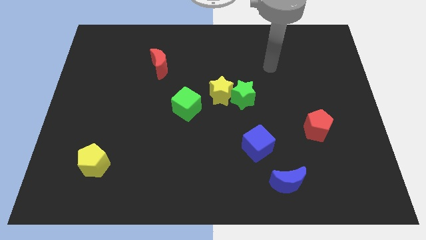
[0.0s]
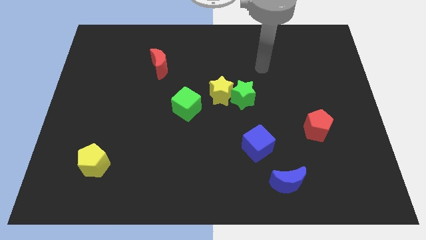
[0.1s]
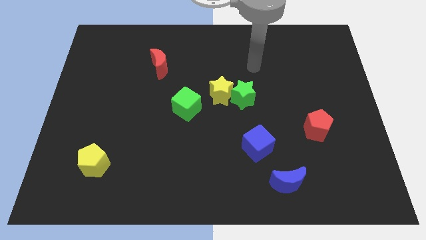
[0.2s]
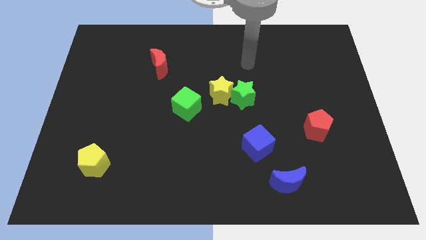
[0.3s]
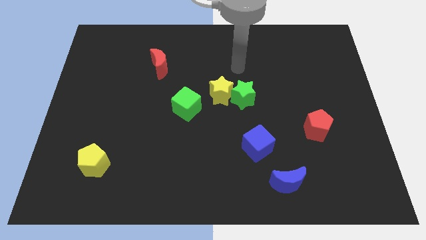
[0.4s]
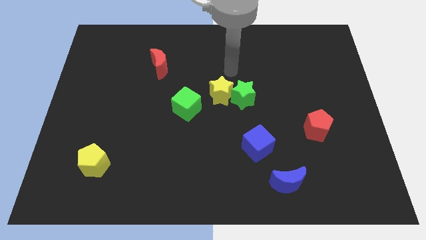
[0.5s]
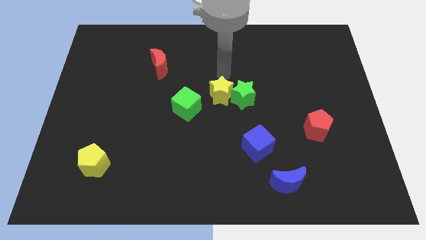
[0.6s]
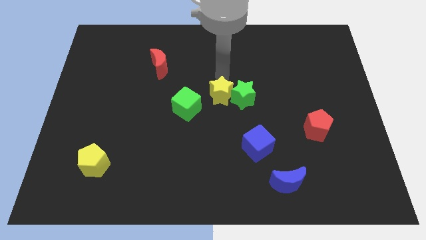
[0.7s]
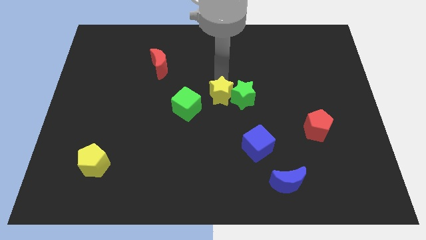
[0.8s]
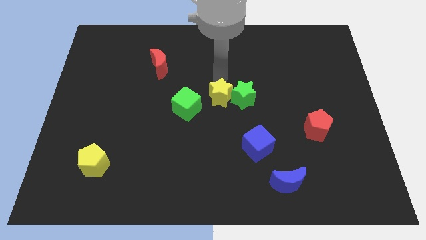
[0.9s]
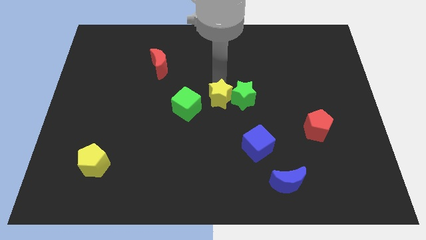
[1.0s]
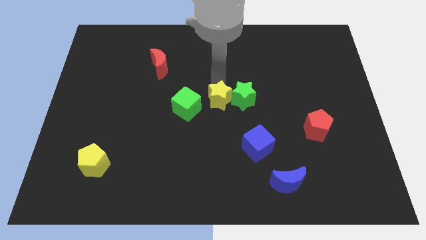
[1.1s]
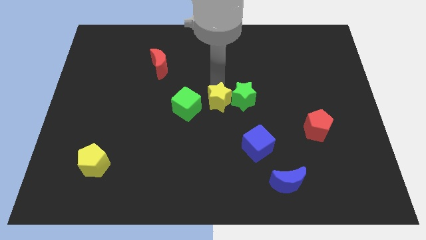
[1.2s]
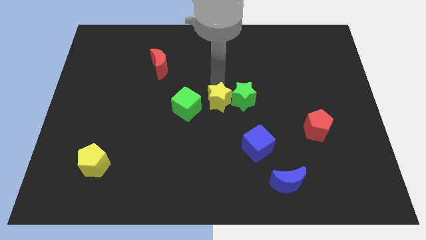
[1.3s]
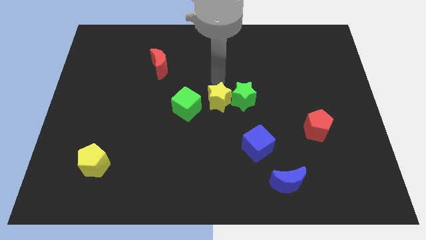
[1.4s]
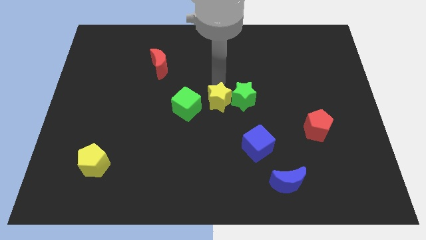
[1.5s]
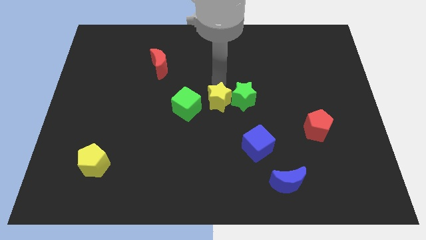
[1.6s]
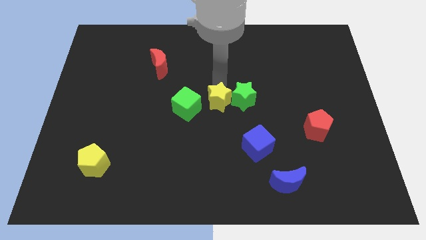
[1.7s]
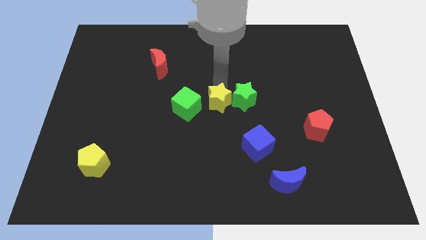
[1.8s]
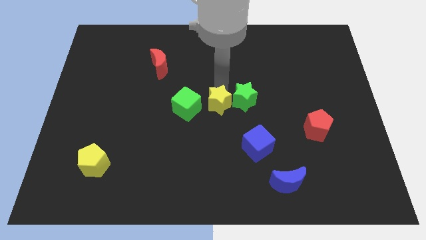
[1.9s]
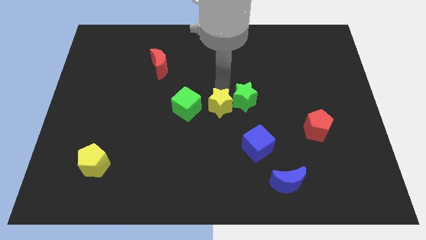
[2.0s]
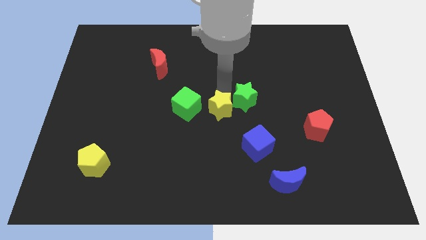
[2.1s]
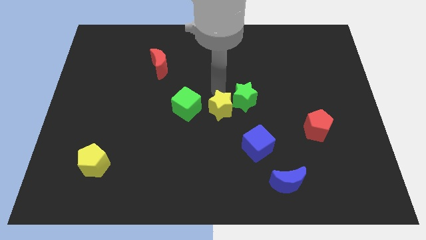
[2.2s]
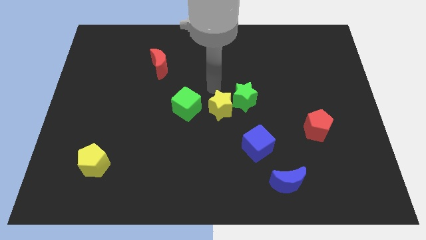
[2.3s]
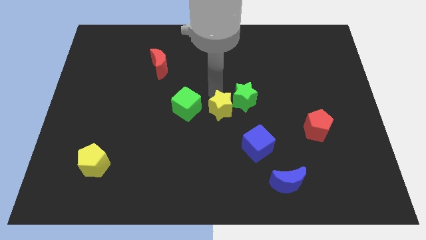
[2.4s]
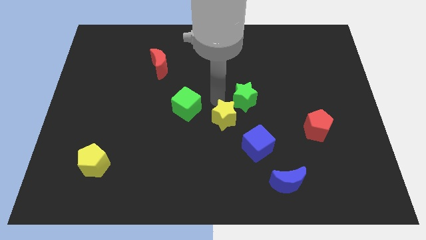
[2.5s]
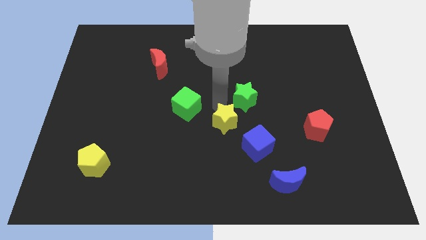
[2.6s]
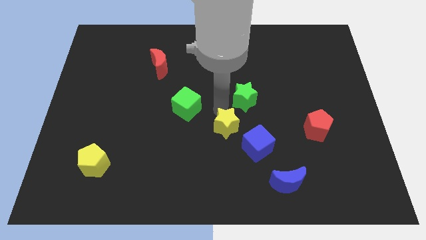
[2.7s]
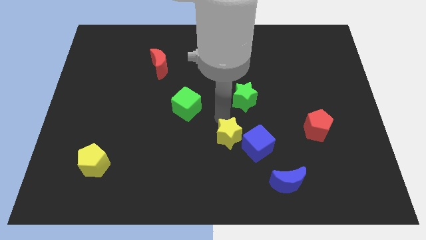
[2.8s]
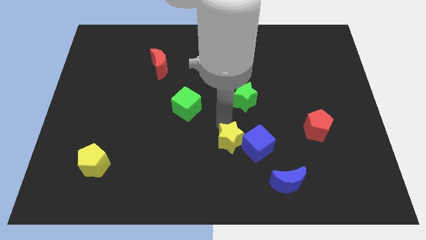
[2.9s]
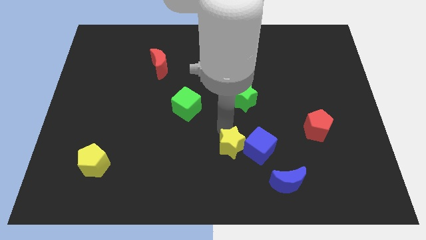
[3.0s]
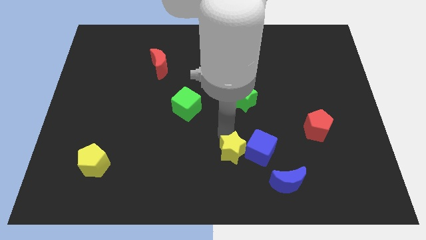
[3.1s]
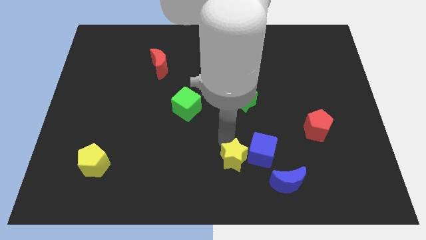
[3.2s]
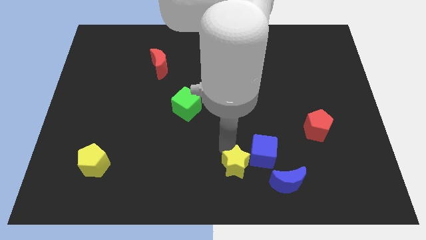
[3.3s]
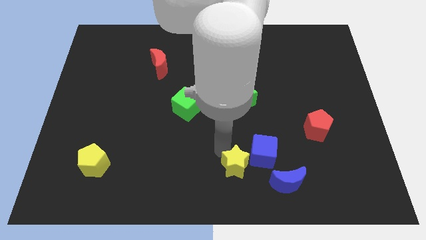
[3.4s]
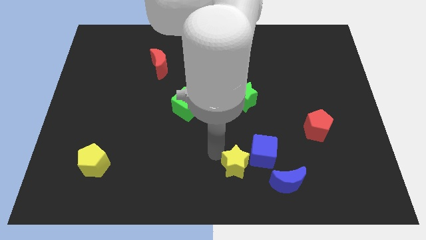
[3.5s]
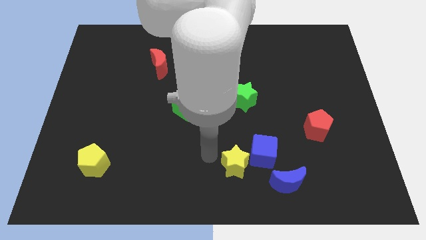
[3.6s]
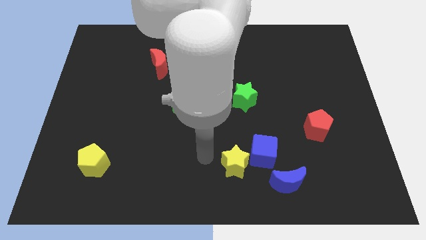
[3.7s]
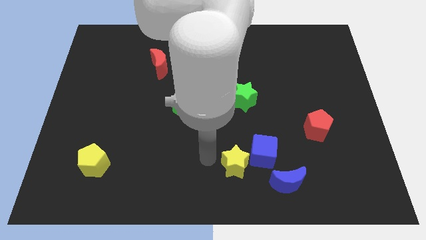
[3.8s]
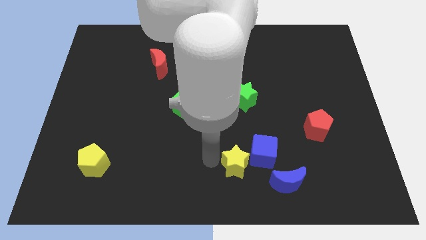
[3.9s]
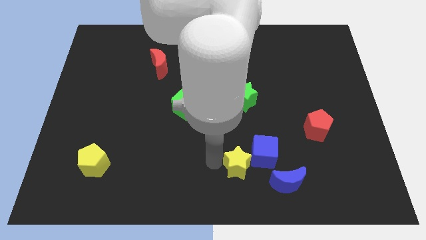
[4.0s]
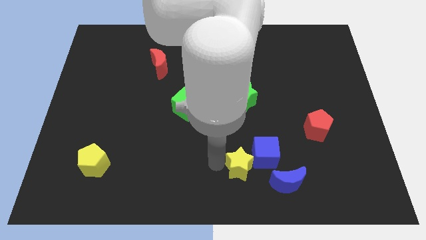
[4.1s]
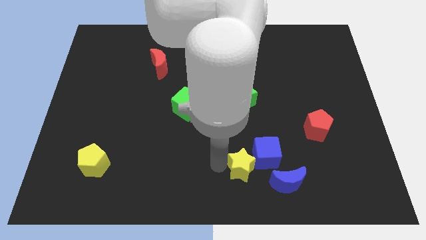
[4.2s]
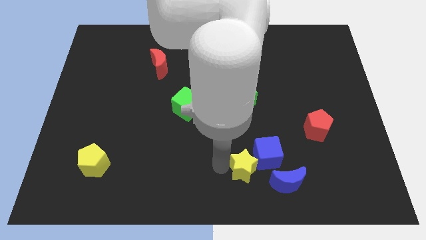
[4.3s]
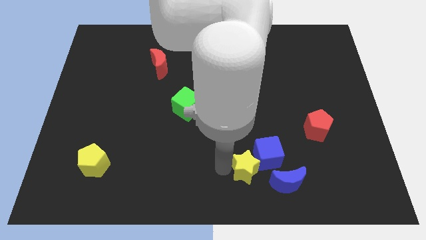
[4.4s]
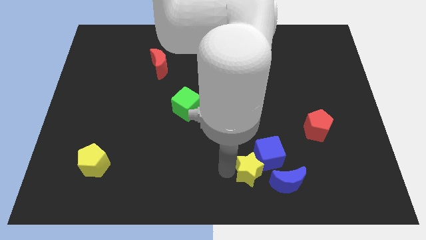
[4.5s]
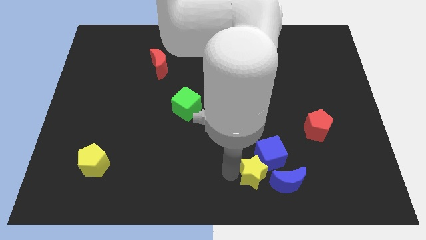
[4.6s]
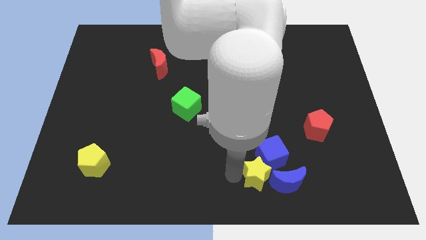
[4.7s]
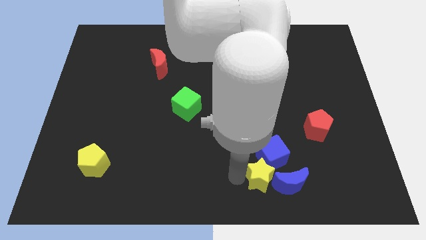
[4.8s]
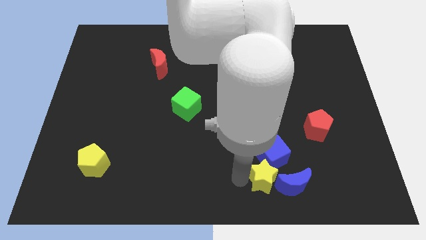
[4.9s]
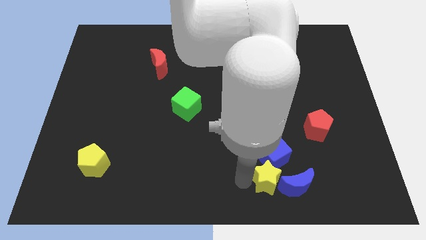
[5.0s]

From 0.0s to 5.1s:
slide the yellow star to the blue moon

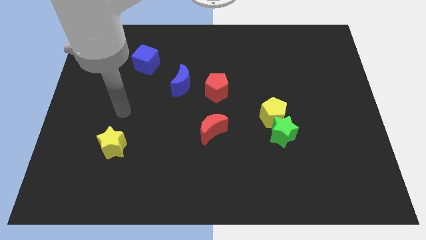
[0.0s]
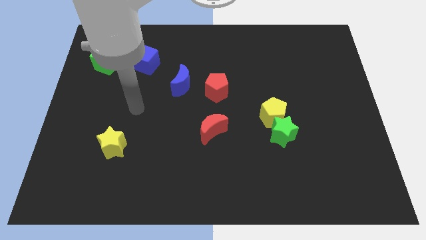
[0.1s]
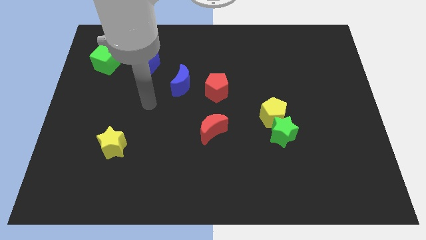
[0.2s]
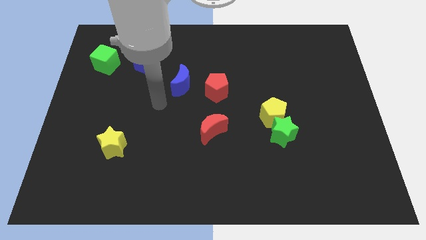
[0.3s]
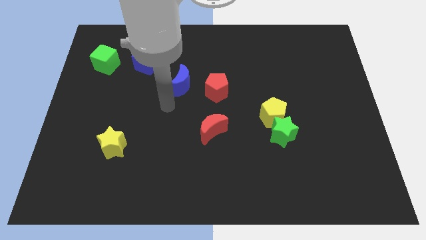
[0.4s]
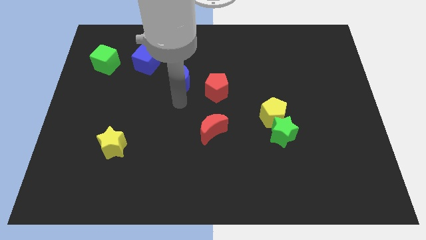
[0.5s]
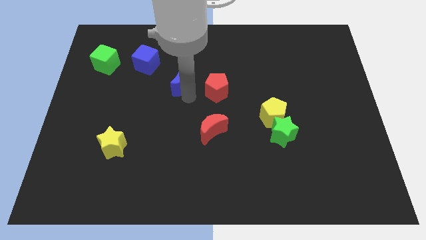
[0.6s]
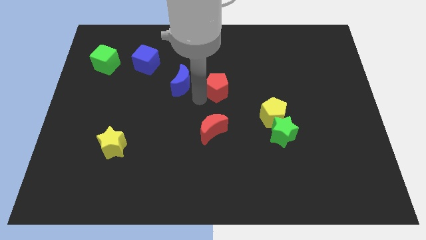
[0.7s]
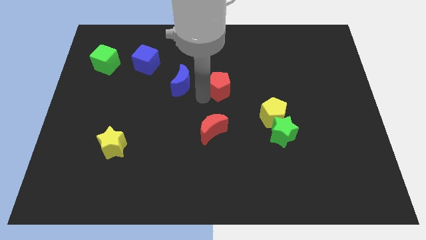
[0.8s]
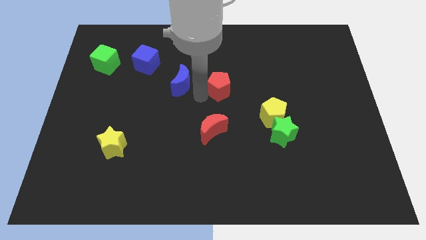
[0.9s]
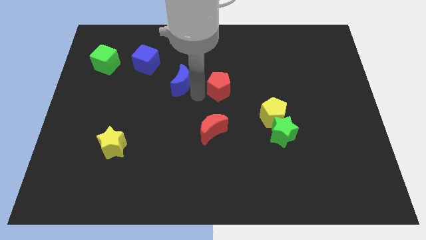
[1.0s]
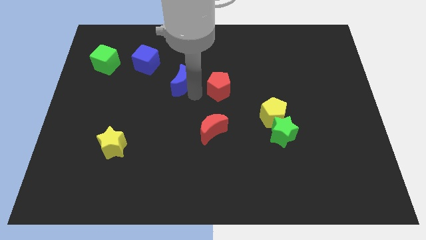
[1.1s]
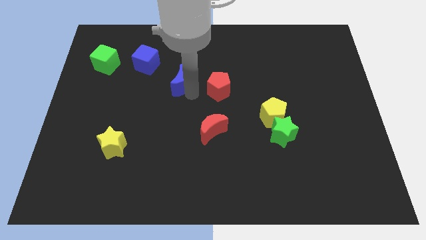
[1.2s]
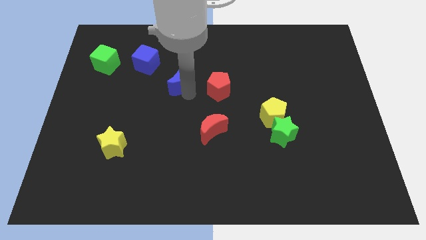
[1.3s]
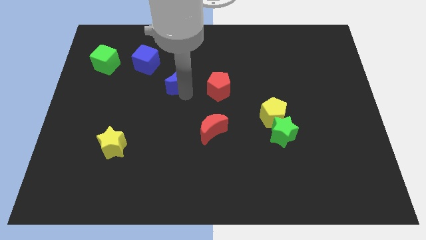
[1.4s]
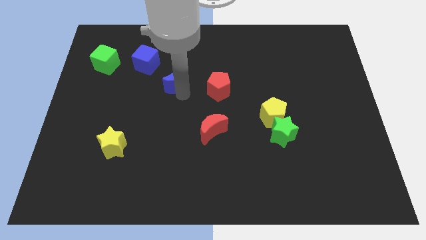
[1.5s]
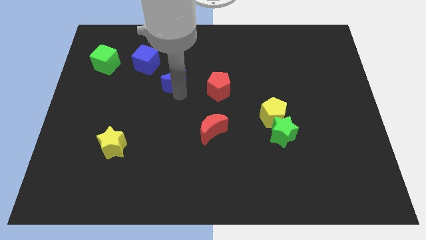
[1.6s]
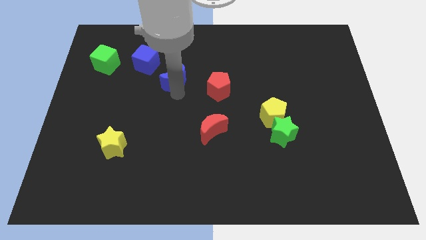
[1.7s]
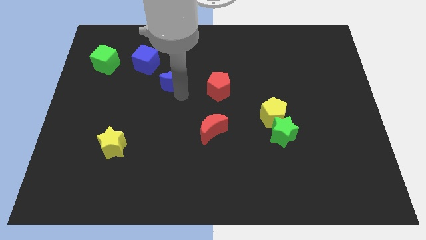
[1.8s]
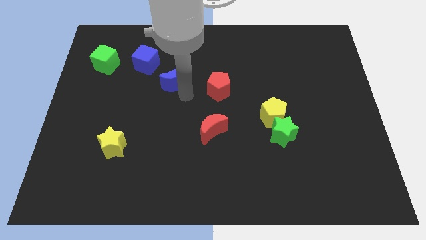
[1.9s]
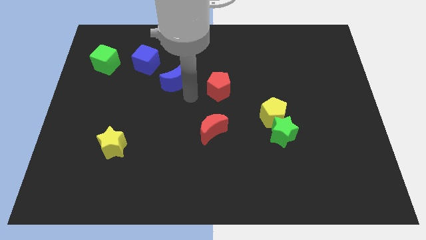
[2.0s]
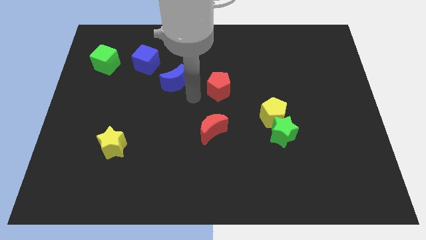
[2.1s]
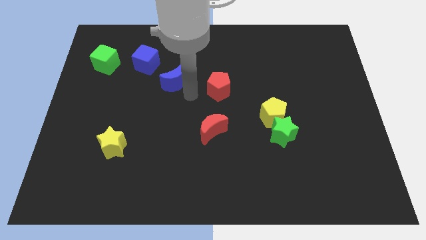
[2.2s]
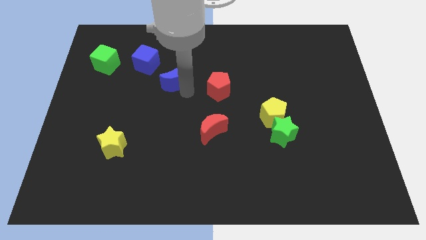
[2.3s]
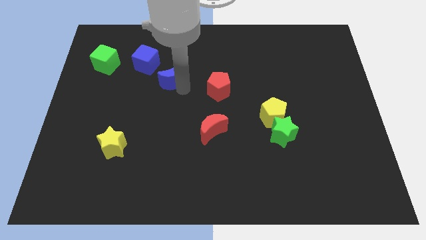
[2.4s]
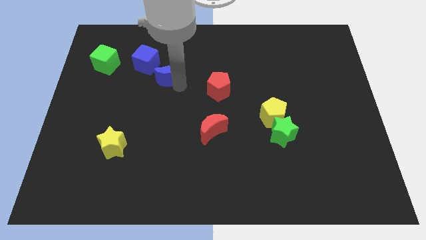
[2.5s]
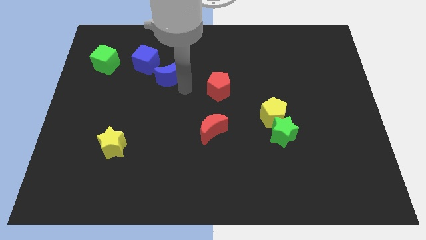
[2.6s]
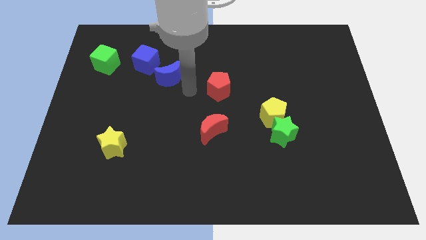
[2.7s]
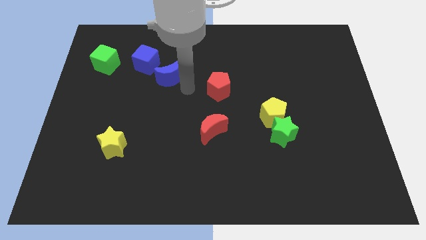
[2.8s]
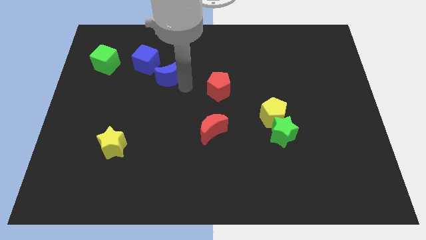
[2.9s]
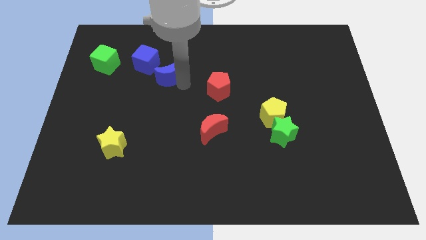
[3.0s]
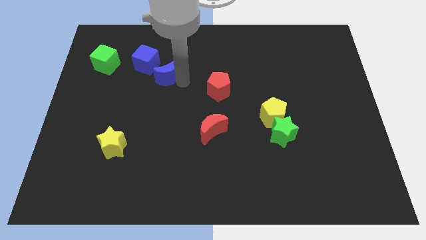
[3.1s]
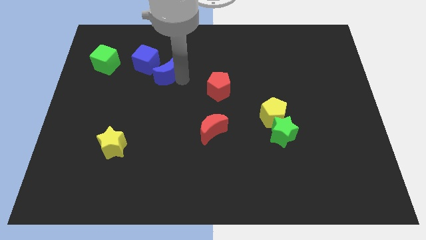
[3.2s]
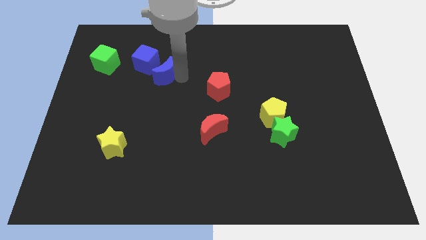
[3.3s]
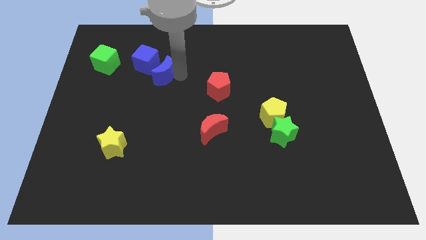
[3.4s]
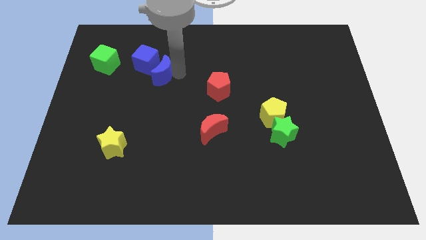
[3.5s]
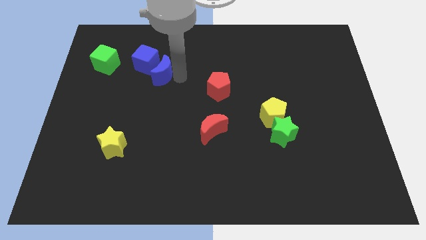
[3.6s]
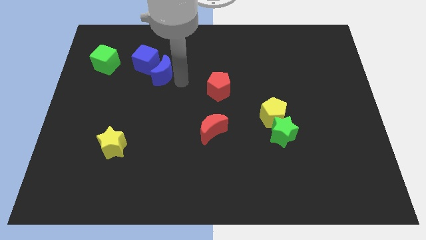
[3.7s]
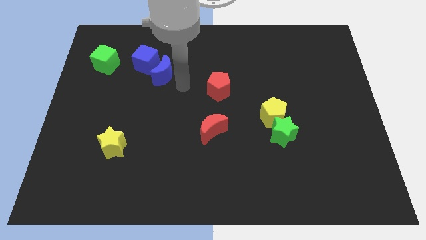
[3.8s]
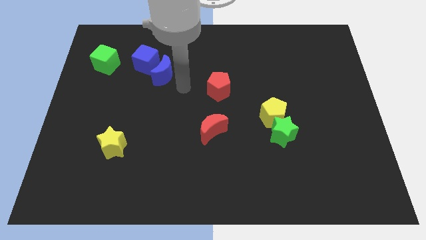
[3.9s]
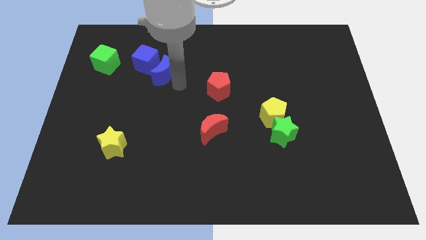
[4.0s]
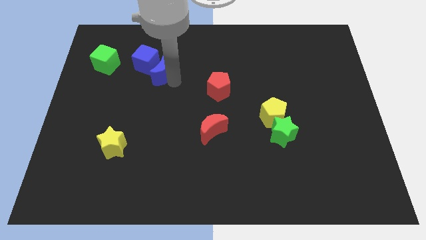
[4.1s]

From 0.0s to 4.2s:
push the blue moon next to the blue cube
